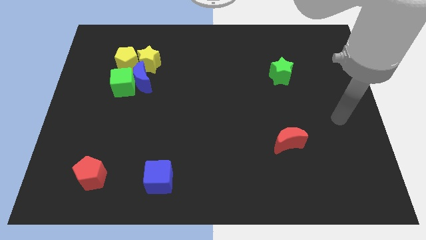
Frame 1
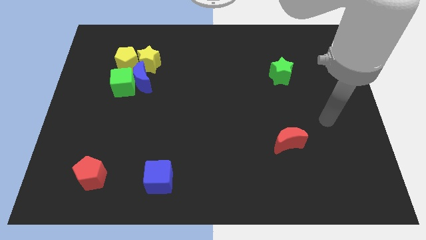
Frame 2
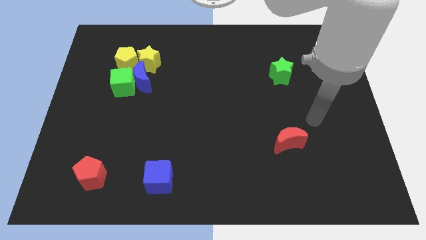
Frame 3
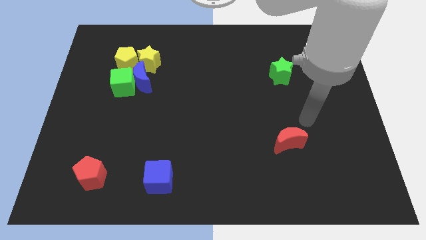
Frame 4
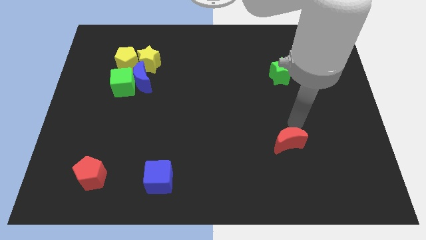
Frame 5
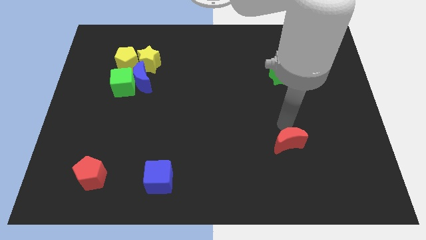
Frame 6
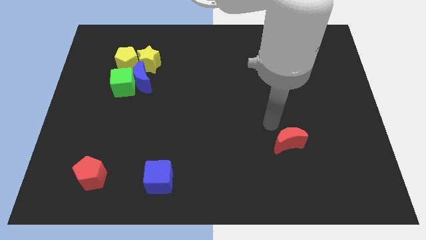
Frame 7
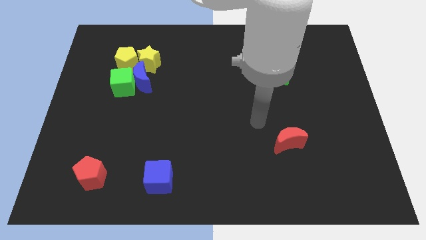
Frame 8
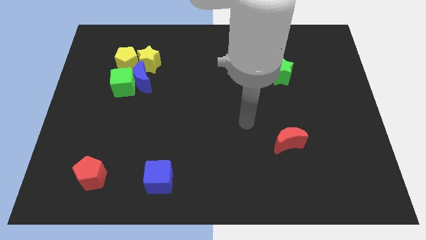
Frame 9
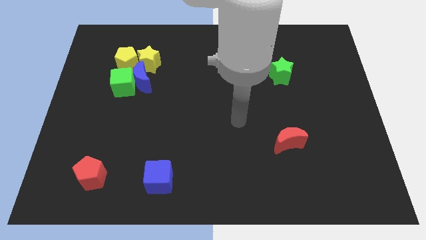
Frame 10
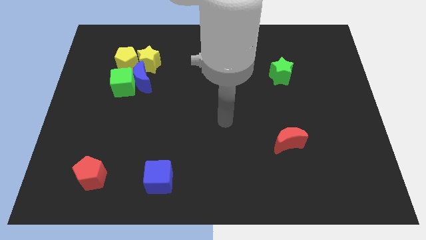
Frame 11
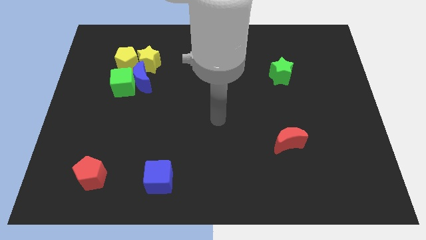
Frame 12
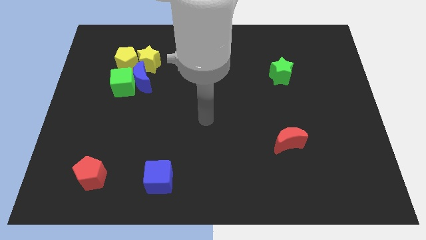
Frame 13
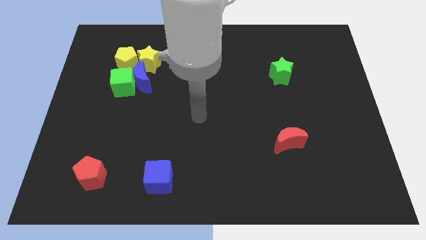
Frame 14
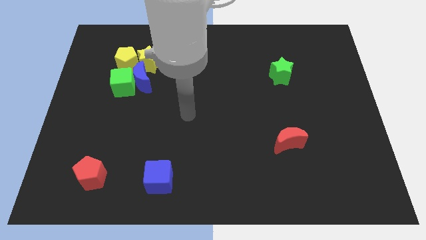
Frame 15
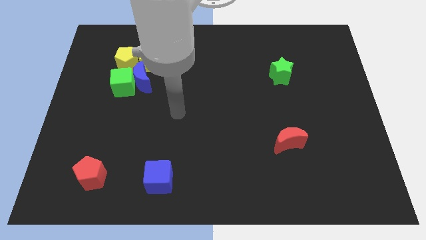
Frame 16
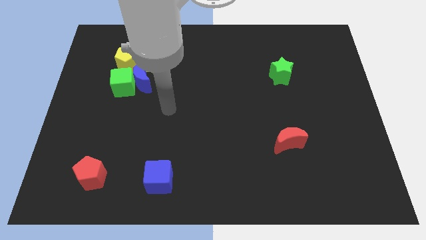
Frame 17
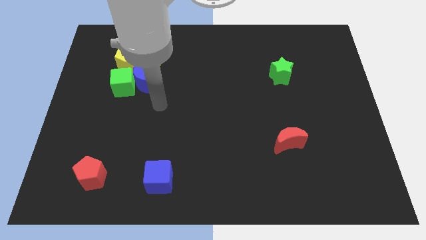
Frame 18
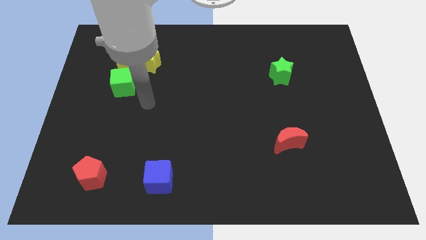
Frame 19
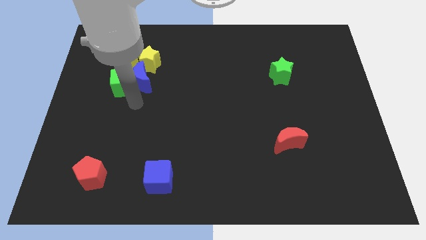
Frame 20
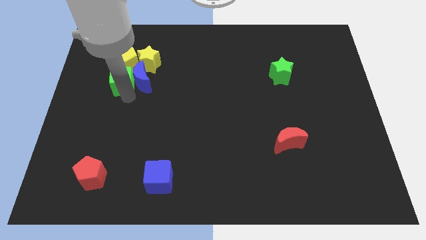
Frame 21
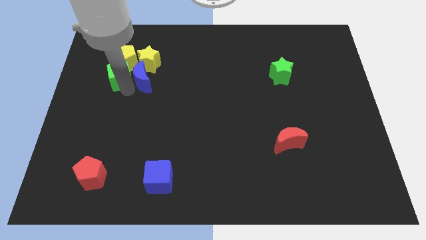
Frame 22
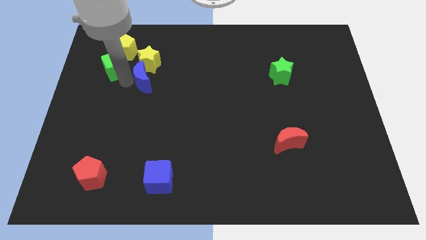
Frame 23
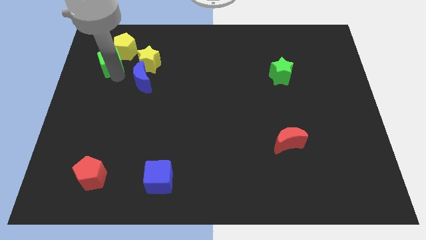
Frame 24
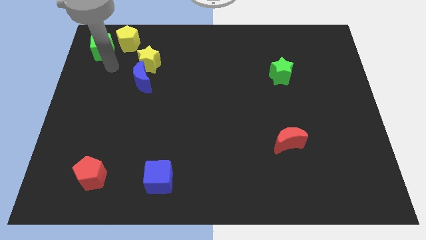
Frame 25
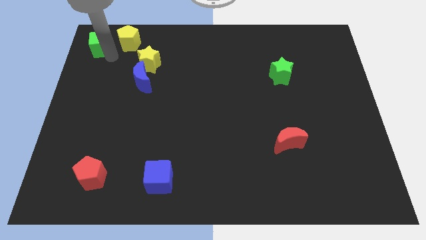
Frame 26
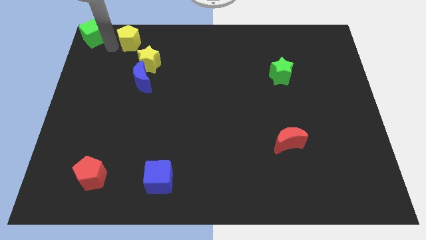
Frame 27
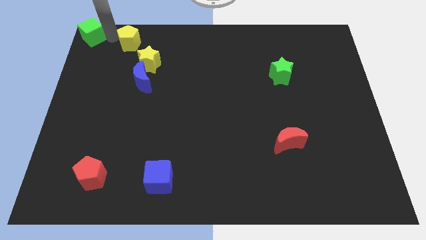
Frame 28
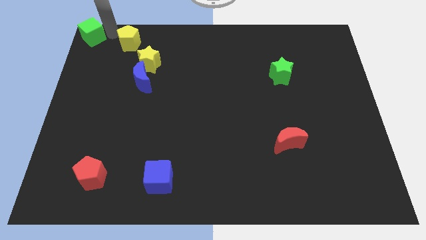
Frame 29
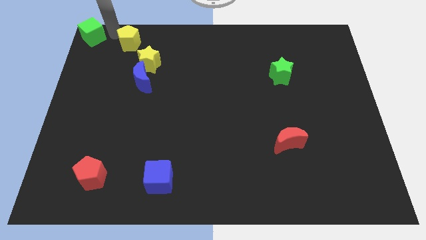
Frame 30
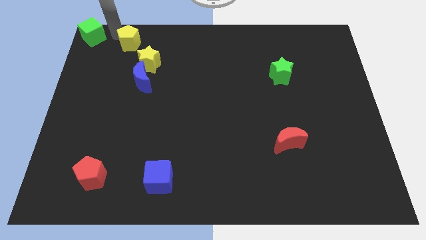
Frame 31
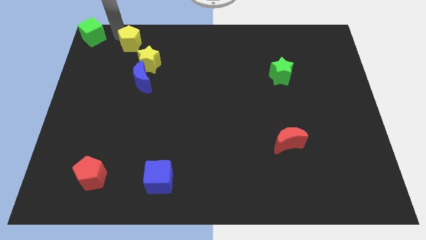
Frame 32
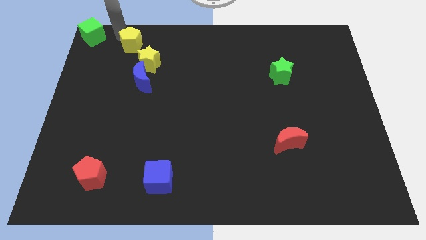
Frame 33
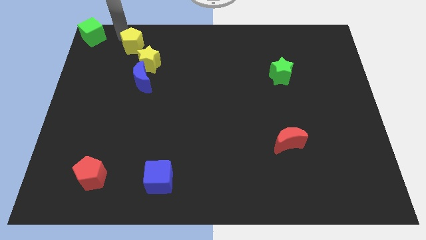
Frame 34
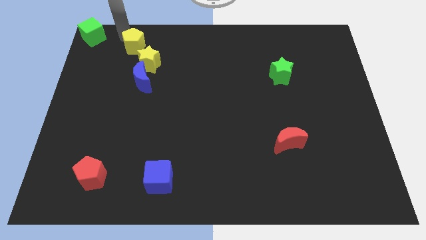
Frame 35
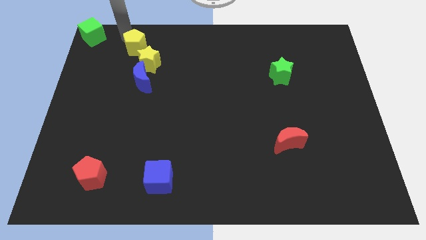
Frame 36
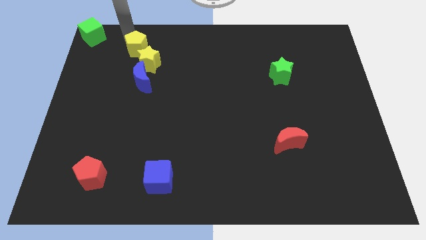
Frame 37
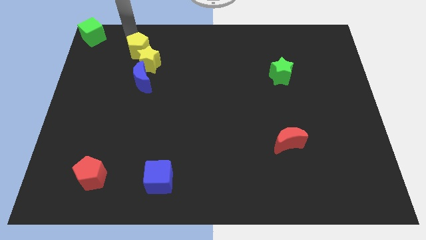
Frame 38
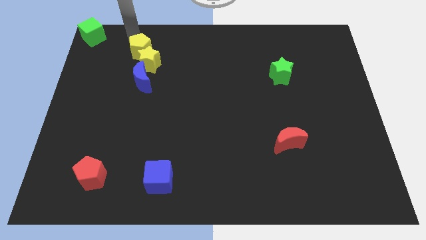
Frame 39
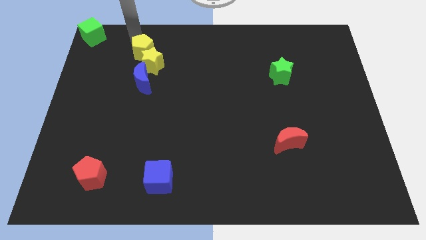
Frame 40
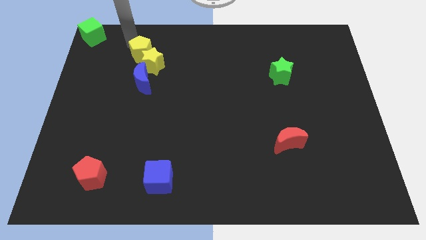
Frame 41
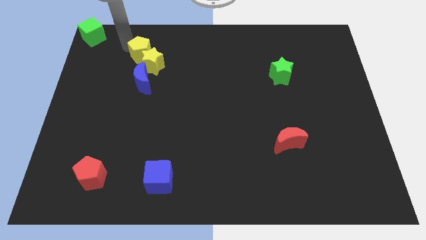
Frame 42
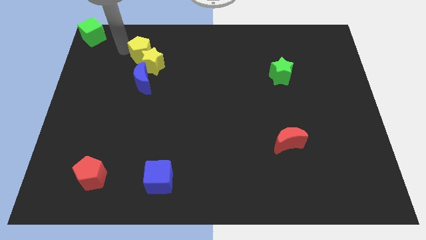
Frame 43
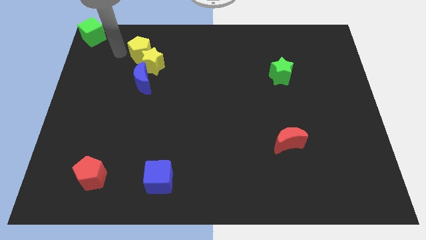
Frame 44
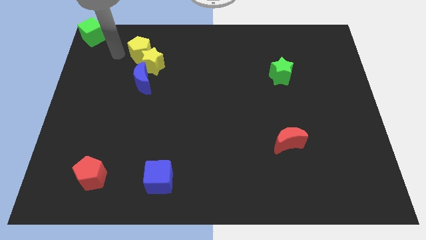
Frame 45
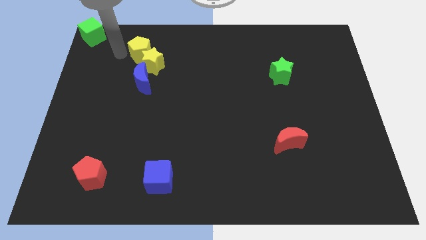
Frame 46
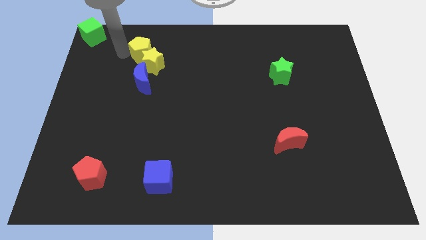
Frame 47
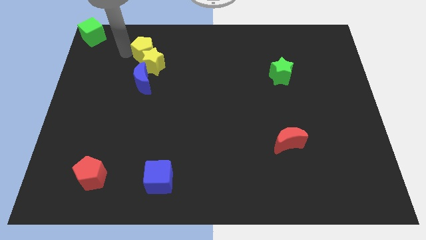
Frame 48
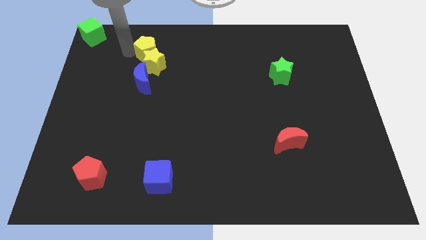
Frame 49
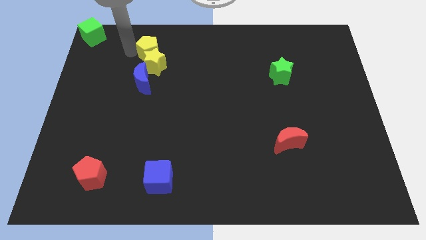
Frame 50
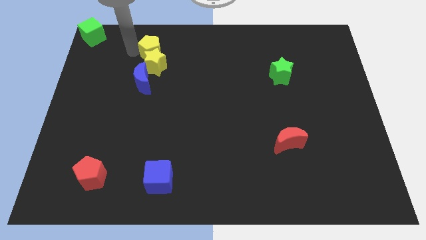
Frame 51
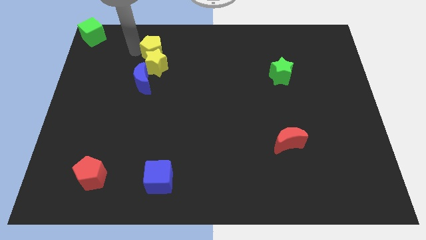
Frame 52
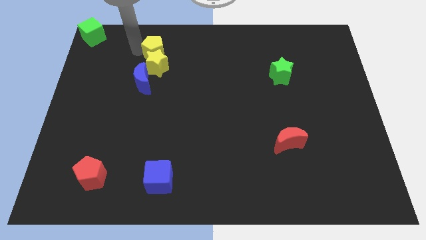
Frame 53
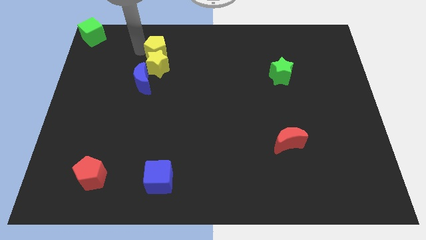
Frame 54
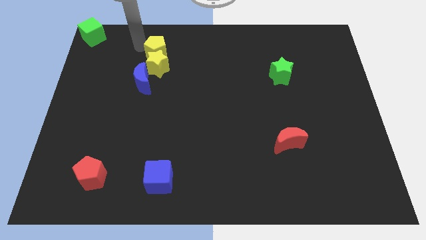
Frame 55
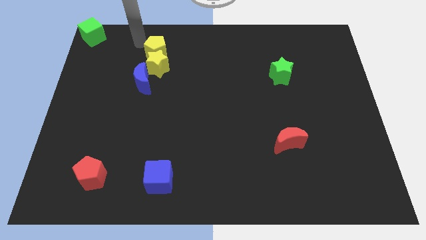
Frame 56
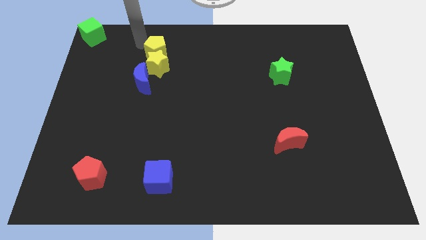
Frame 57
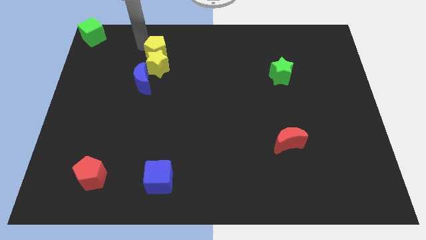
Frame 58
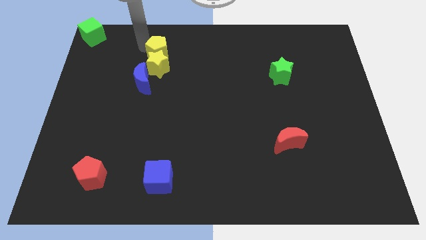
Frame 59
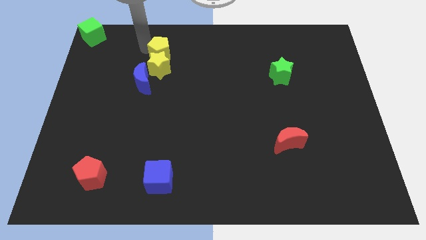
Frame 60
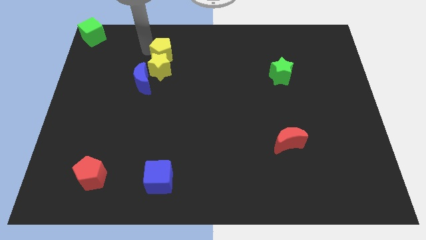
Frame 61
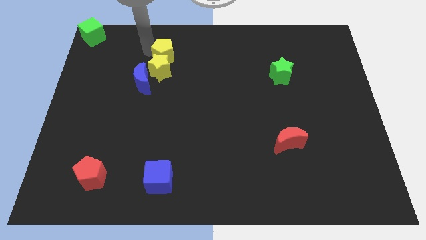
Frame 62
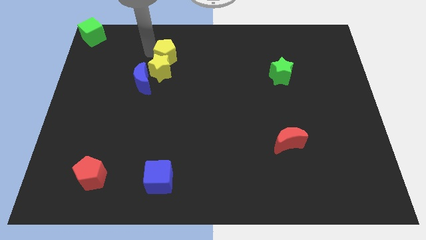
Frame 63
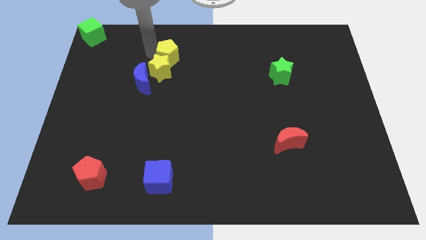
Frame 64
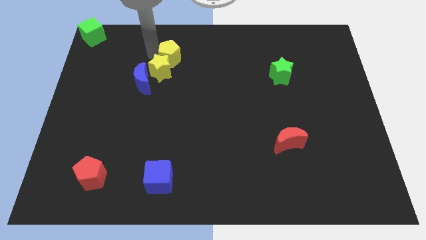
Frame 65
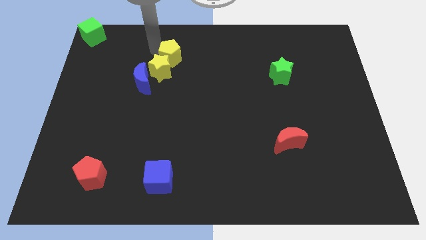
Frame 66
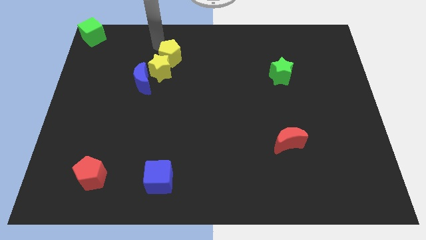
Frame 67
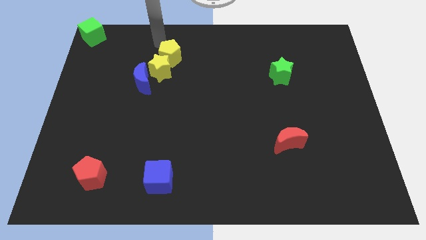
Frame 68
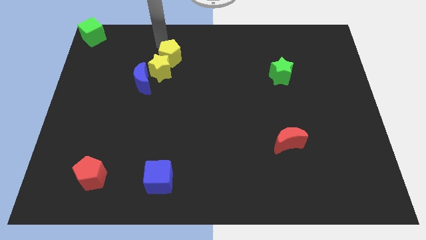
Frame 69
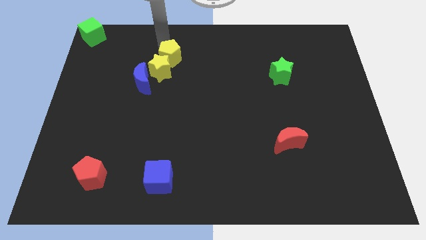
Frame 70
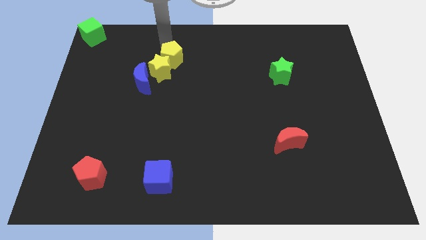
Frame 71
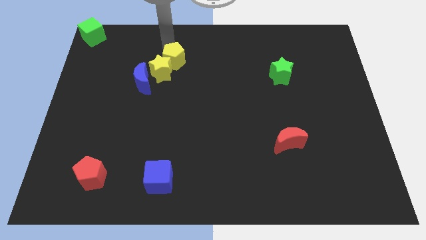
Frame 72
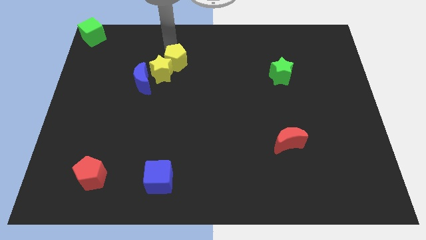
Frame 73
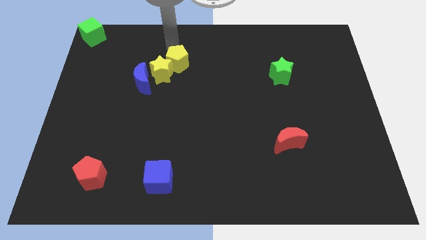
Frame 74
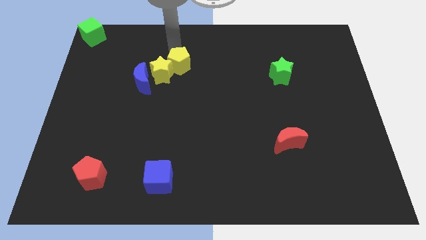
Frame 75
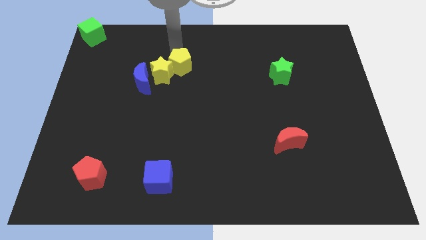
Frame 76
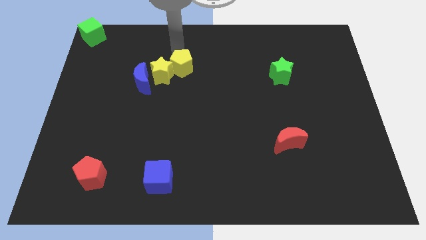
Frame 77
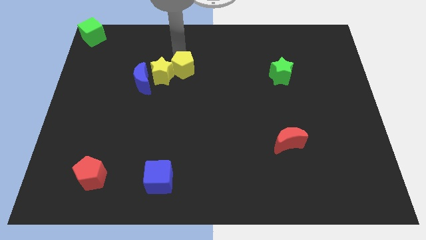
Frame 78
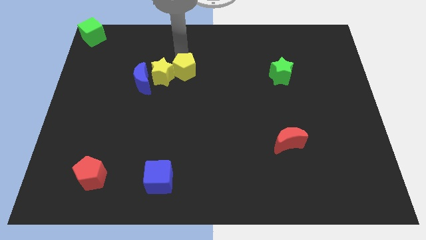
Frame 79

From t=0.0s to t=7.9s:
push the yellow pentagon to the middle
